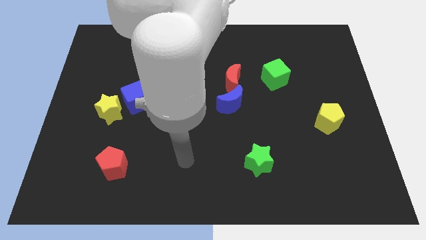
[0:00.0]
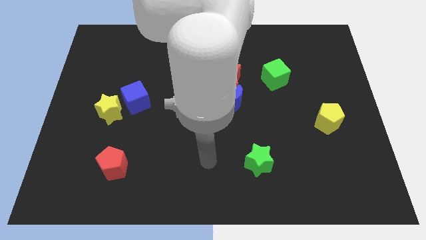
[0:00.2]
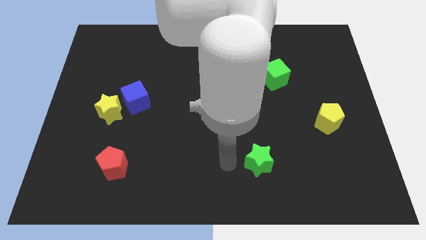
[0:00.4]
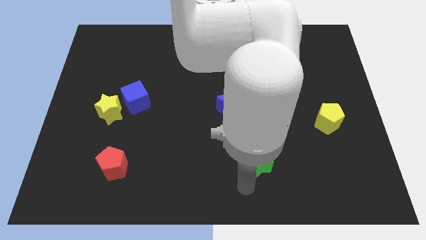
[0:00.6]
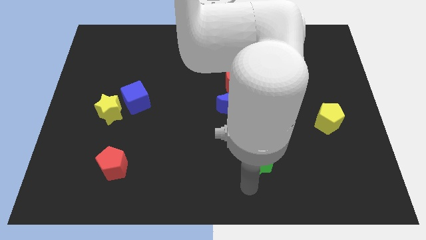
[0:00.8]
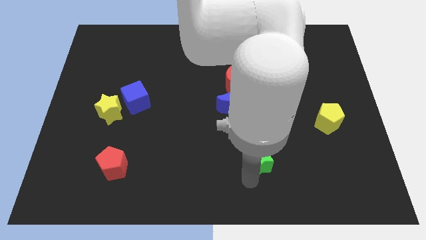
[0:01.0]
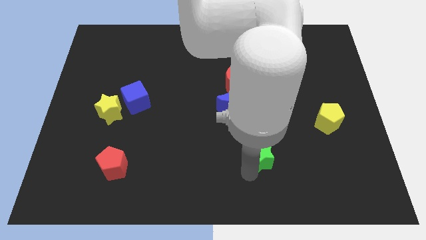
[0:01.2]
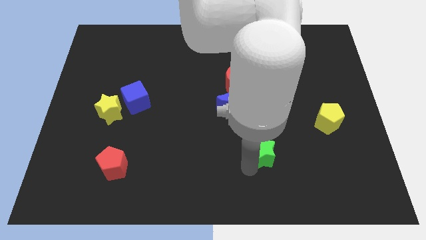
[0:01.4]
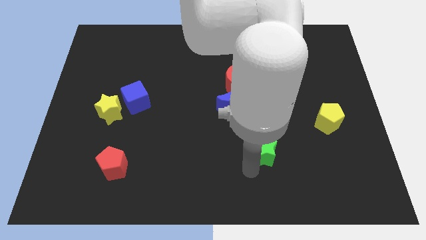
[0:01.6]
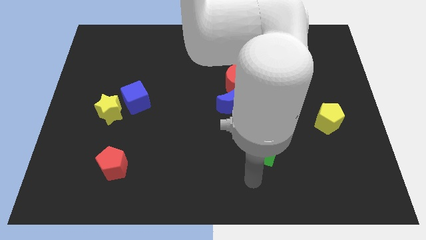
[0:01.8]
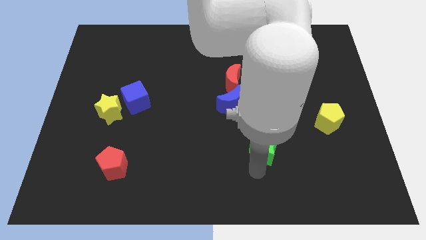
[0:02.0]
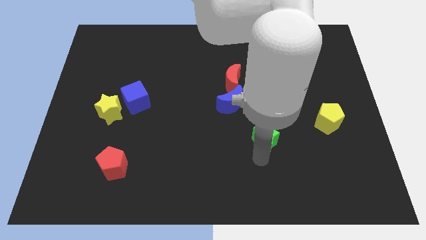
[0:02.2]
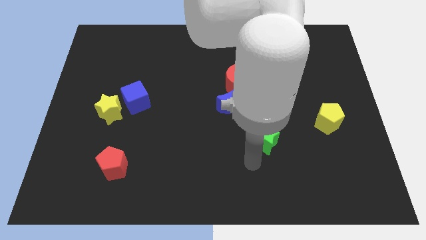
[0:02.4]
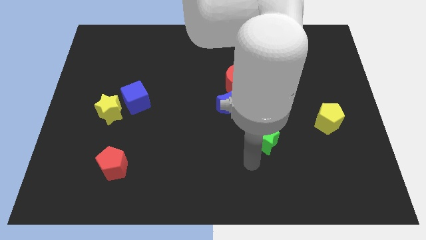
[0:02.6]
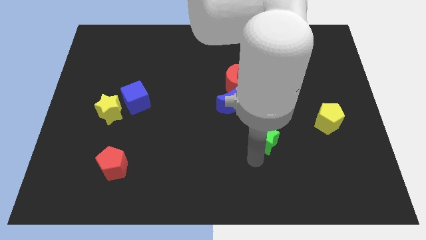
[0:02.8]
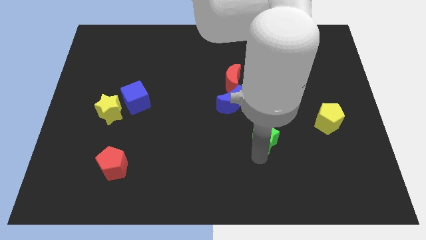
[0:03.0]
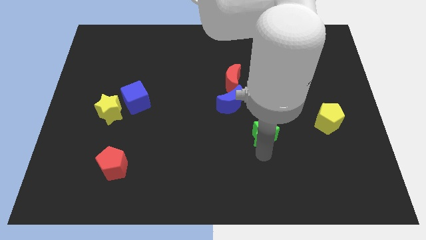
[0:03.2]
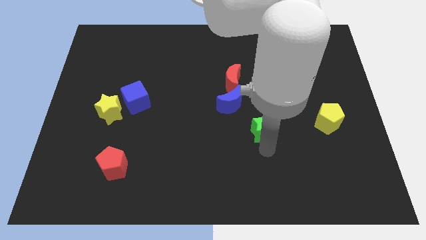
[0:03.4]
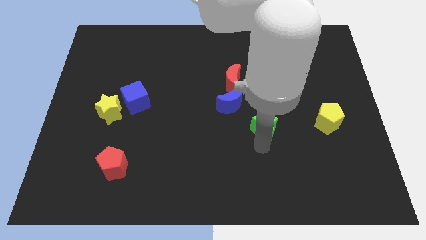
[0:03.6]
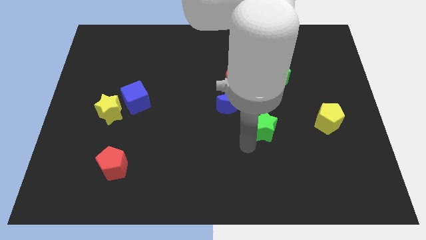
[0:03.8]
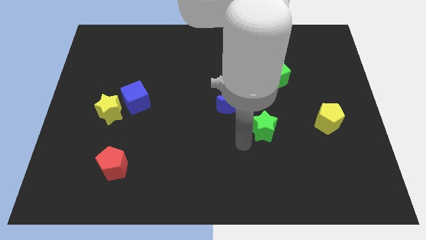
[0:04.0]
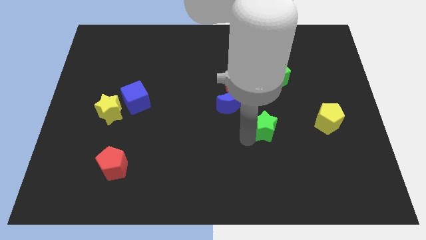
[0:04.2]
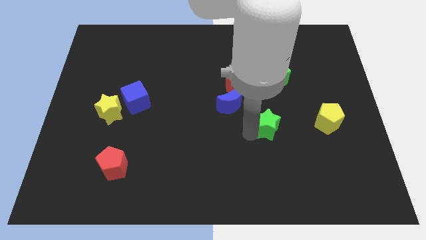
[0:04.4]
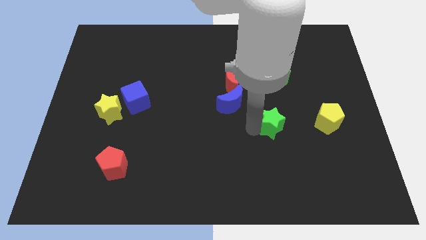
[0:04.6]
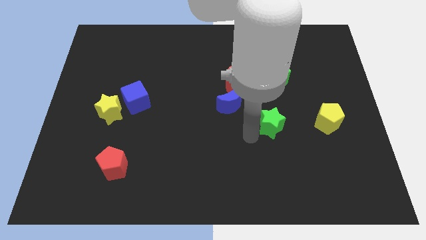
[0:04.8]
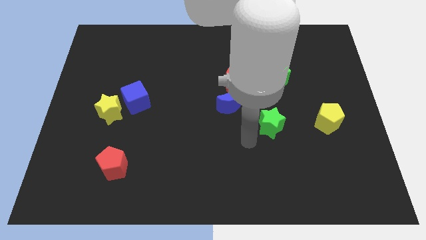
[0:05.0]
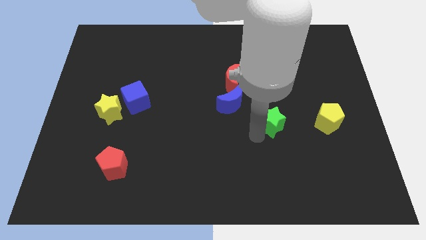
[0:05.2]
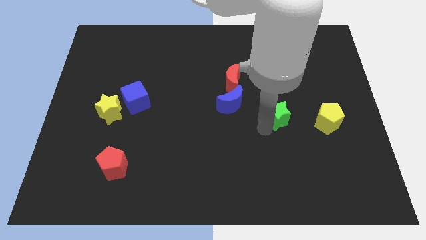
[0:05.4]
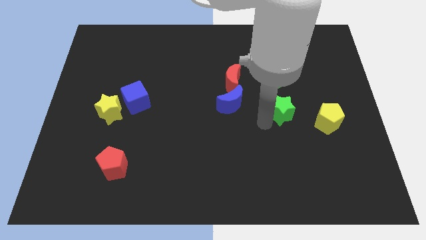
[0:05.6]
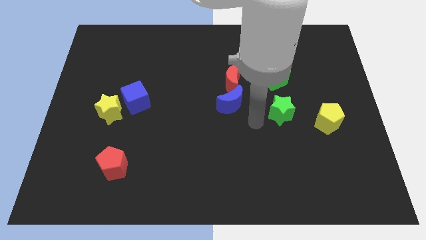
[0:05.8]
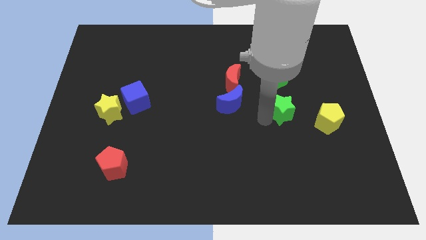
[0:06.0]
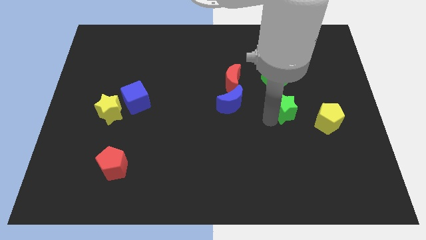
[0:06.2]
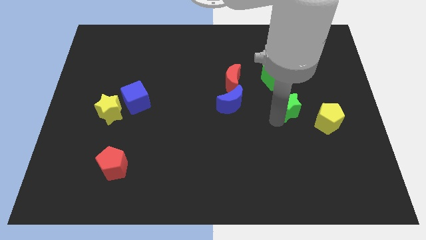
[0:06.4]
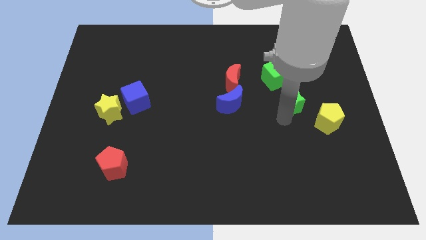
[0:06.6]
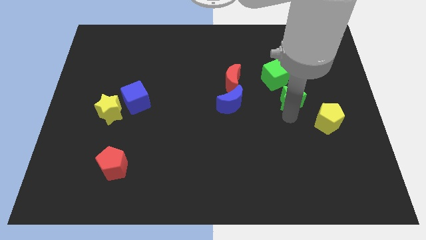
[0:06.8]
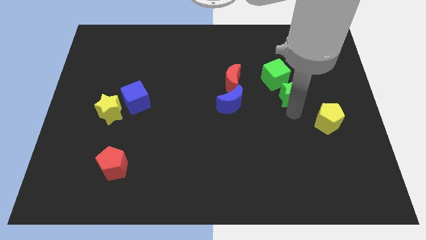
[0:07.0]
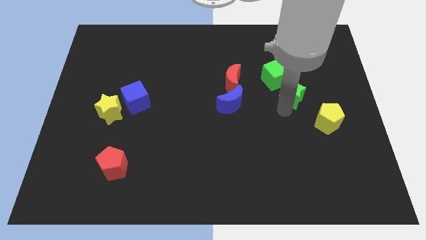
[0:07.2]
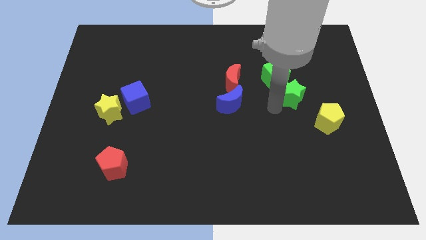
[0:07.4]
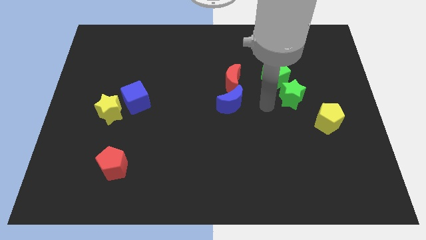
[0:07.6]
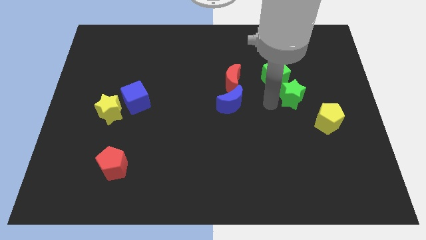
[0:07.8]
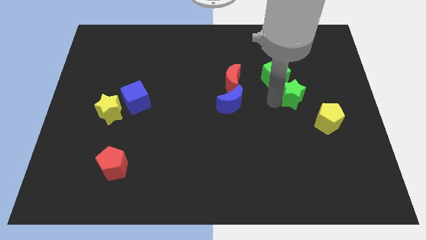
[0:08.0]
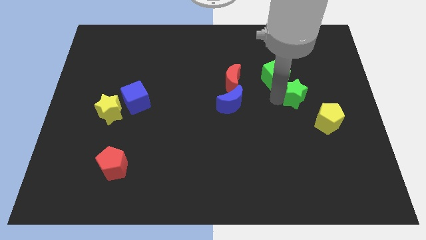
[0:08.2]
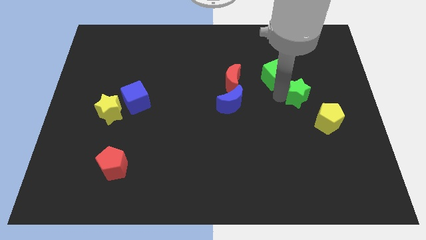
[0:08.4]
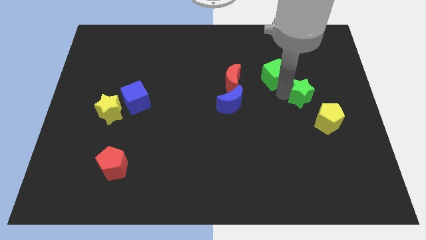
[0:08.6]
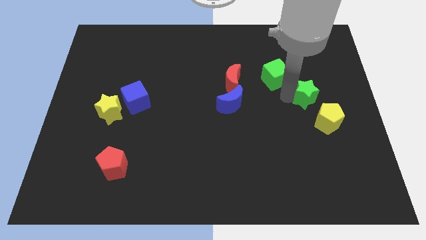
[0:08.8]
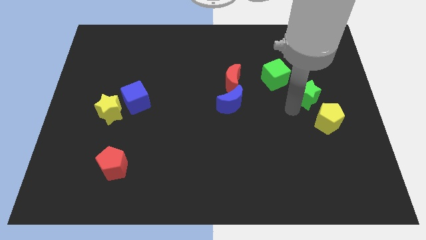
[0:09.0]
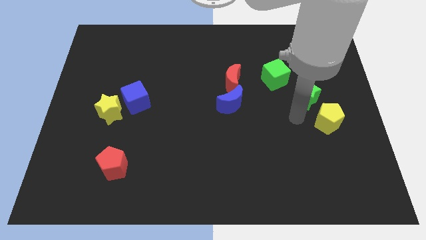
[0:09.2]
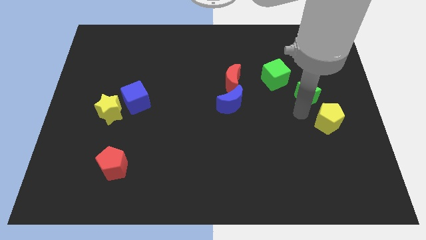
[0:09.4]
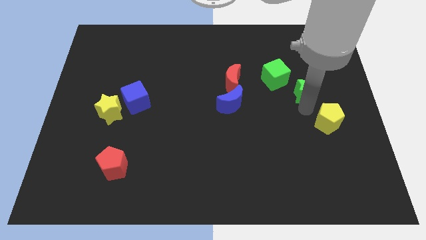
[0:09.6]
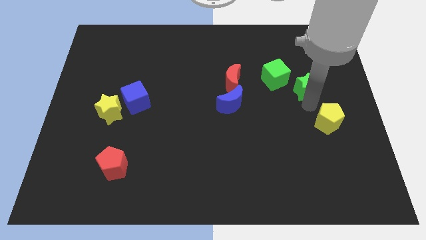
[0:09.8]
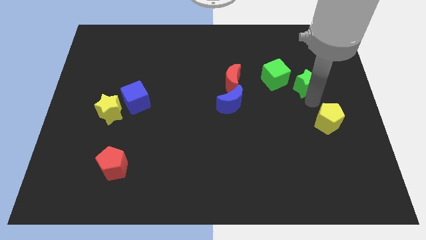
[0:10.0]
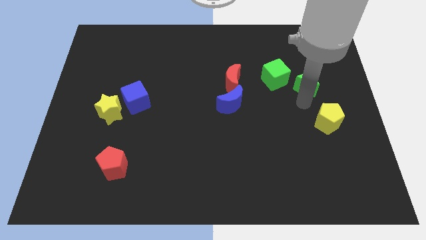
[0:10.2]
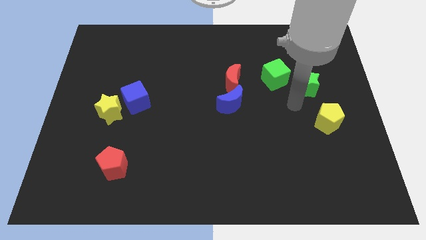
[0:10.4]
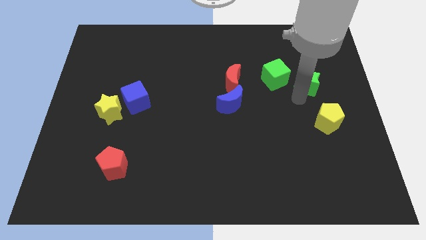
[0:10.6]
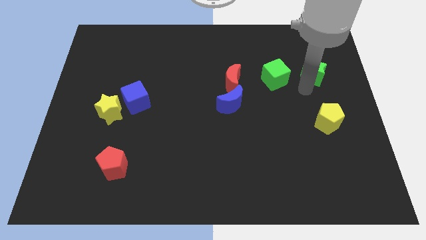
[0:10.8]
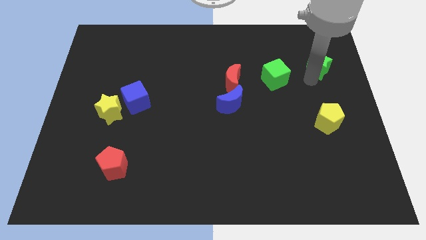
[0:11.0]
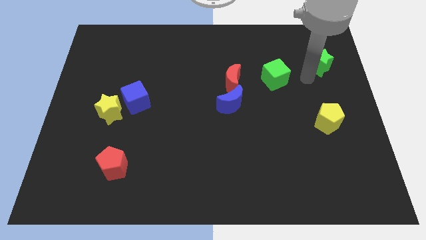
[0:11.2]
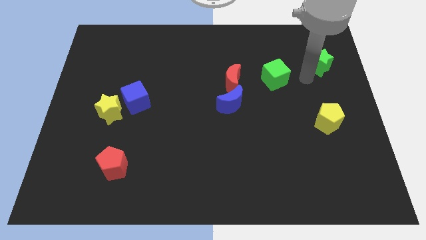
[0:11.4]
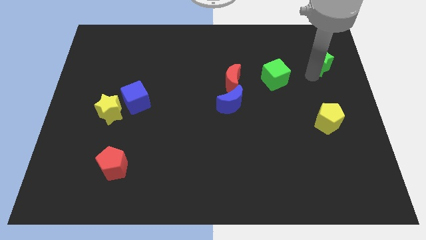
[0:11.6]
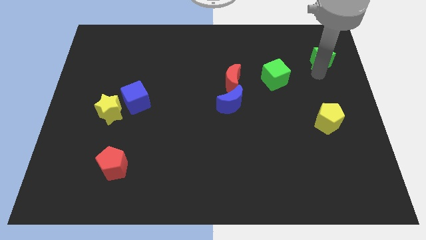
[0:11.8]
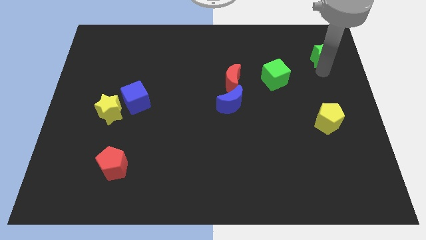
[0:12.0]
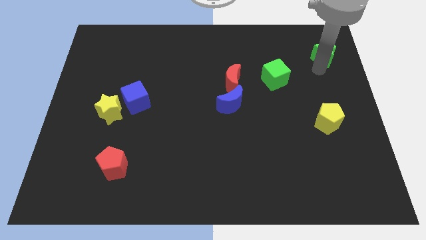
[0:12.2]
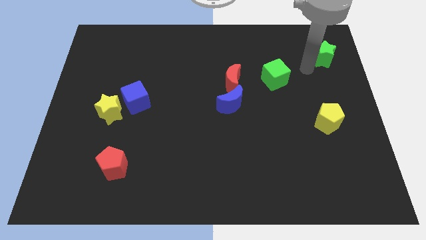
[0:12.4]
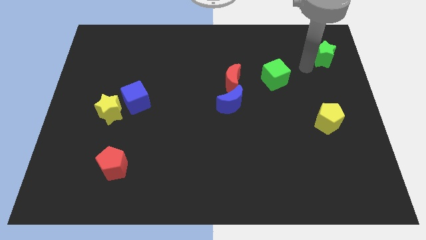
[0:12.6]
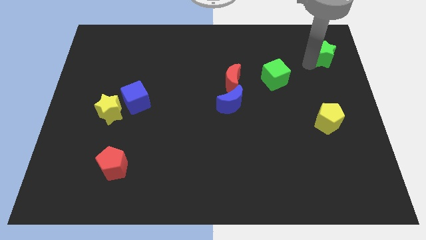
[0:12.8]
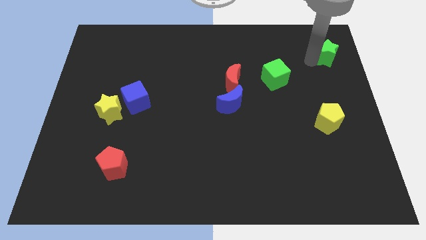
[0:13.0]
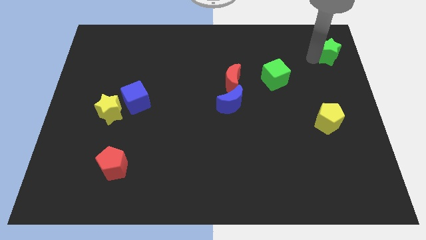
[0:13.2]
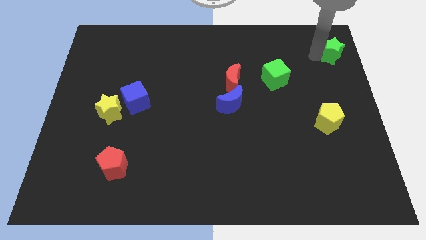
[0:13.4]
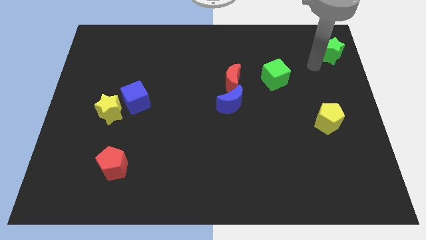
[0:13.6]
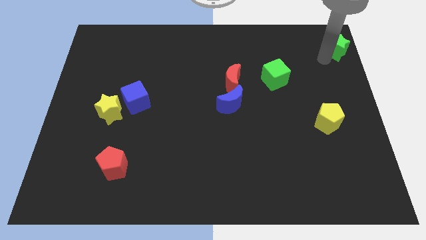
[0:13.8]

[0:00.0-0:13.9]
move the green star to the top right corner
